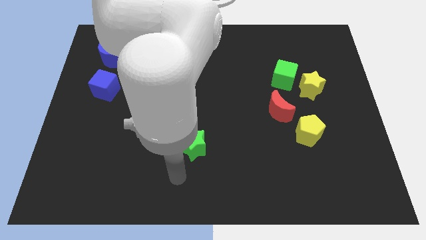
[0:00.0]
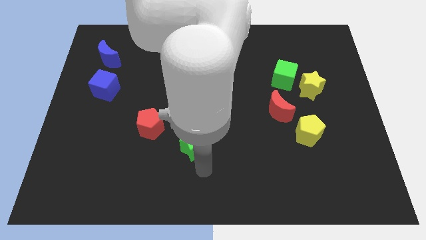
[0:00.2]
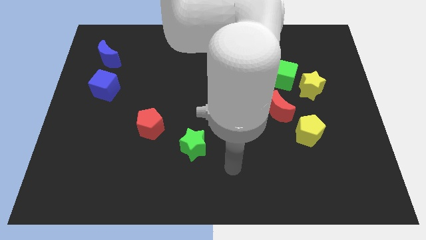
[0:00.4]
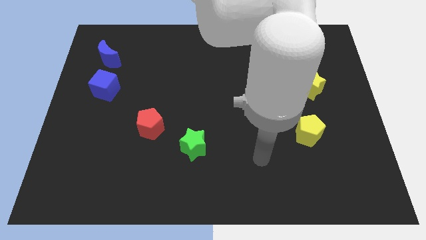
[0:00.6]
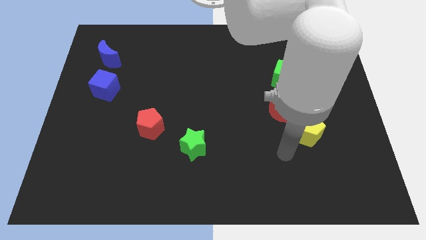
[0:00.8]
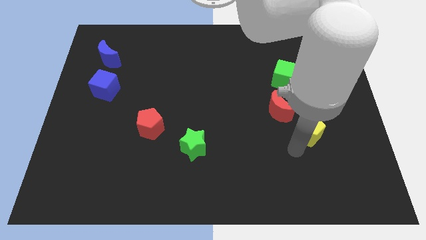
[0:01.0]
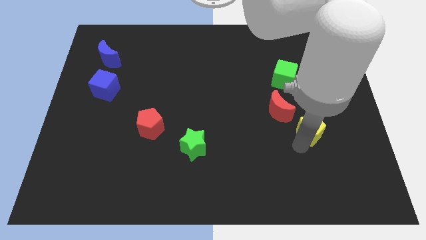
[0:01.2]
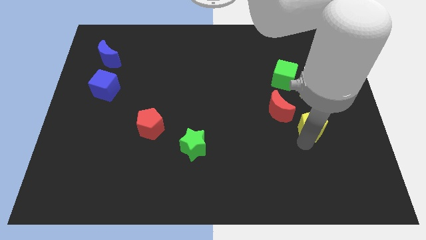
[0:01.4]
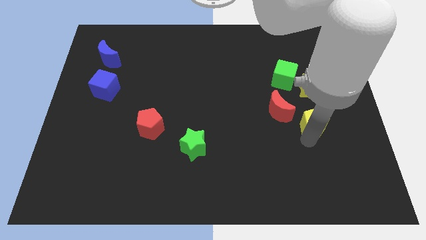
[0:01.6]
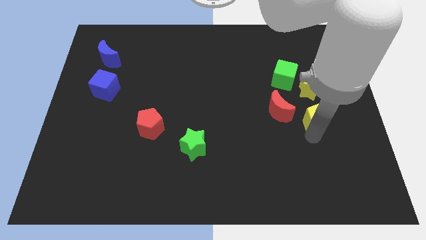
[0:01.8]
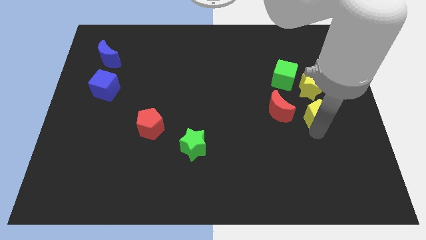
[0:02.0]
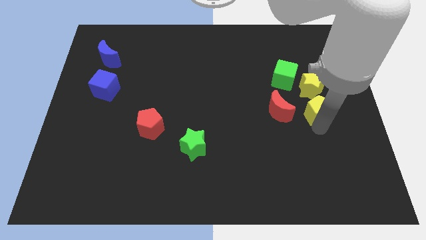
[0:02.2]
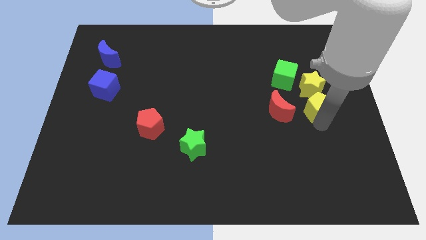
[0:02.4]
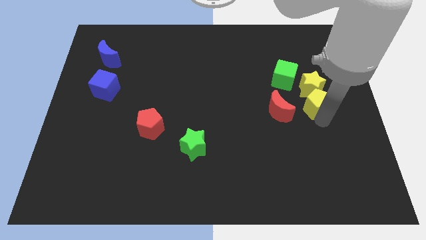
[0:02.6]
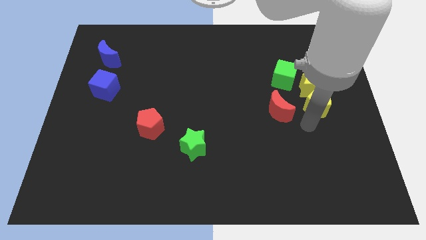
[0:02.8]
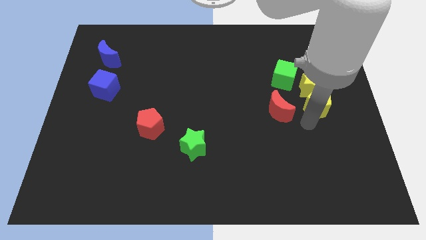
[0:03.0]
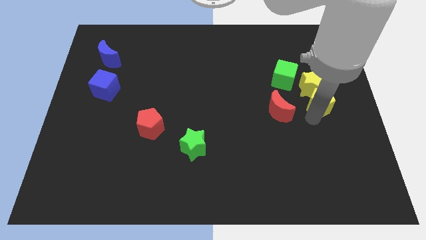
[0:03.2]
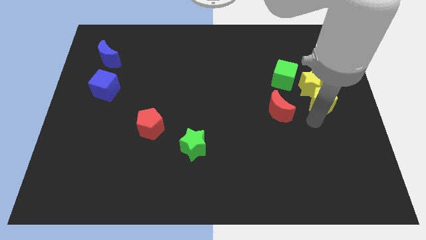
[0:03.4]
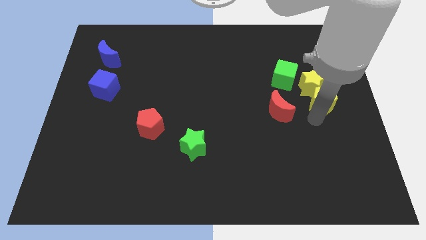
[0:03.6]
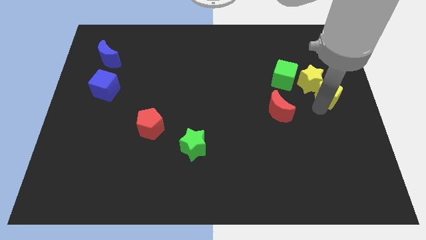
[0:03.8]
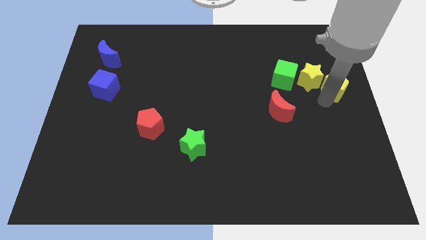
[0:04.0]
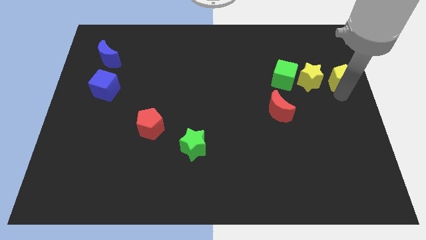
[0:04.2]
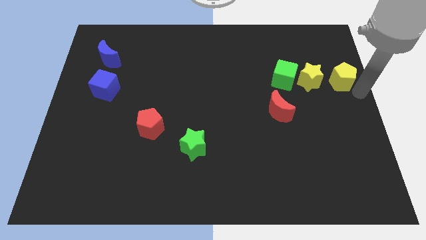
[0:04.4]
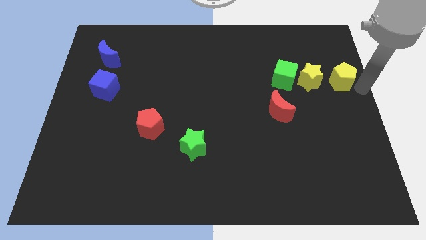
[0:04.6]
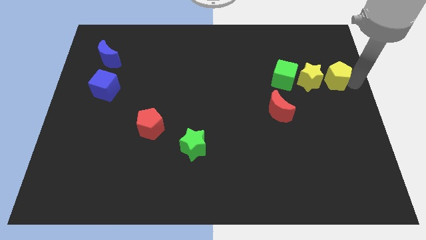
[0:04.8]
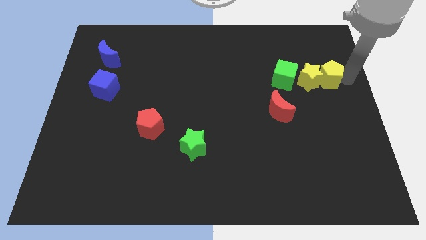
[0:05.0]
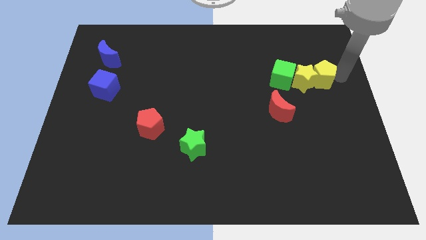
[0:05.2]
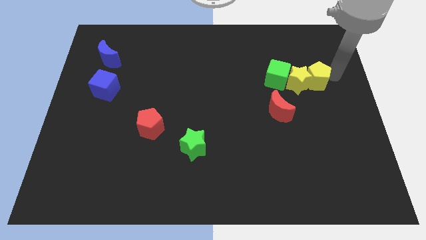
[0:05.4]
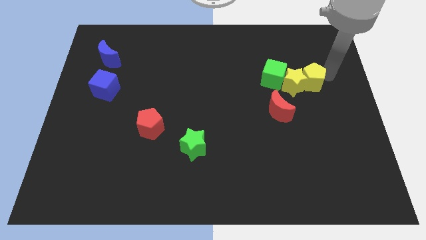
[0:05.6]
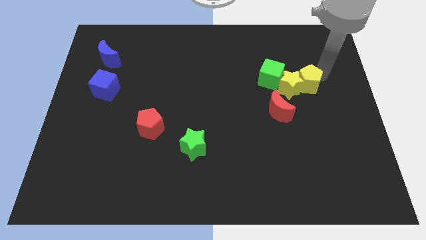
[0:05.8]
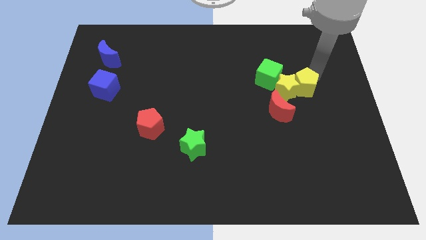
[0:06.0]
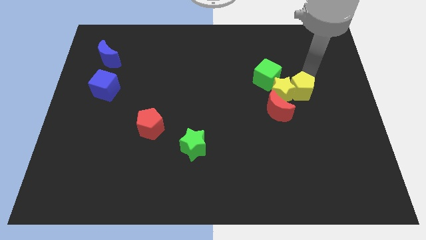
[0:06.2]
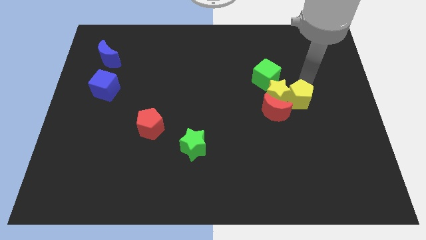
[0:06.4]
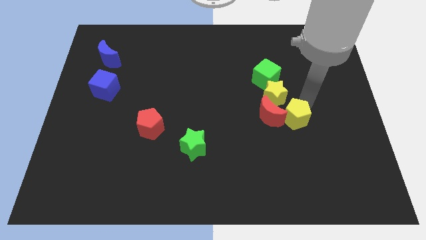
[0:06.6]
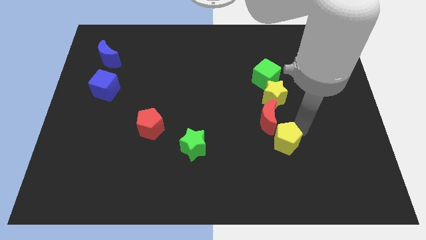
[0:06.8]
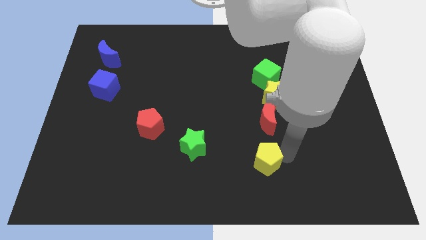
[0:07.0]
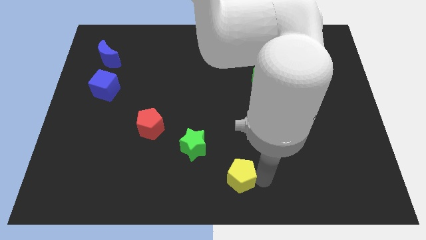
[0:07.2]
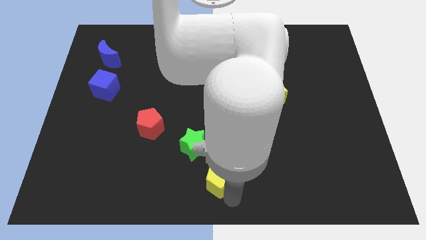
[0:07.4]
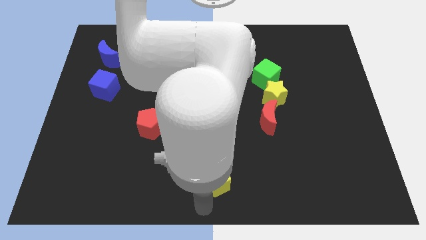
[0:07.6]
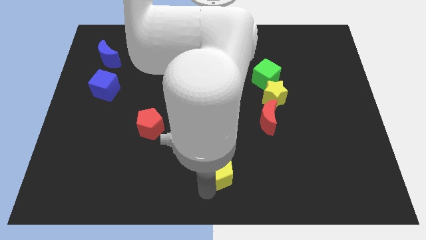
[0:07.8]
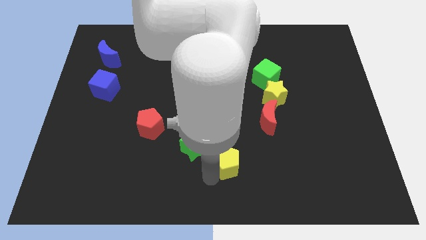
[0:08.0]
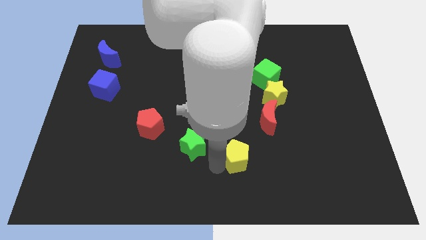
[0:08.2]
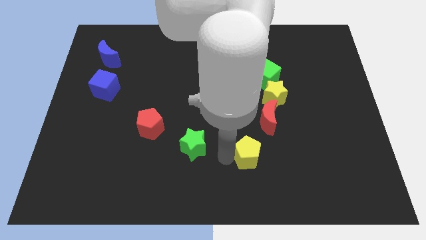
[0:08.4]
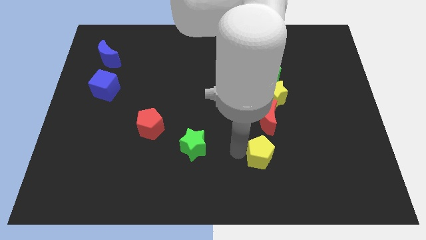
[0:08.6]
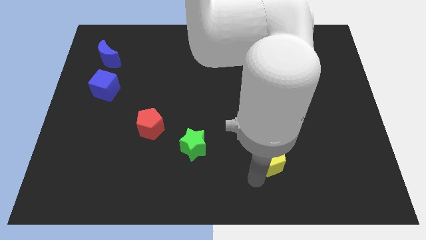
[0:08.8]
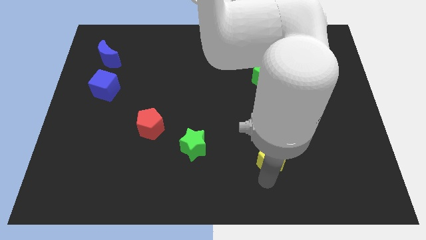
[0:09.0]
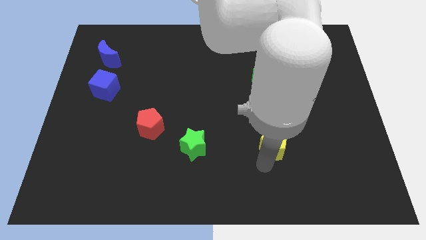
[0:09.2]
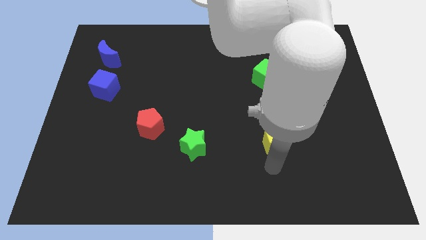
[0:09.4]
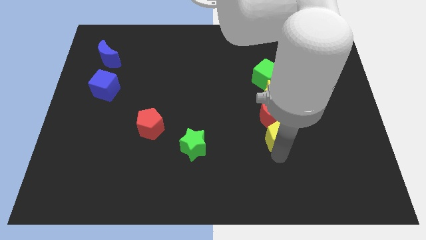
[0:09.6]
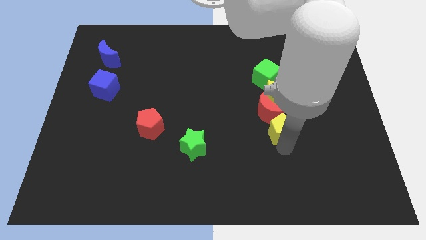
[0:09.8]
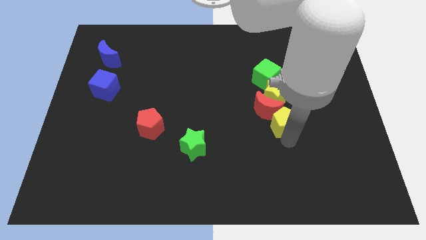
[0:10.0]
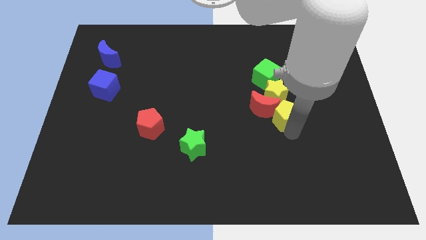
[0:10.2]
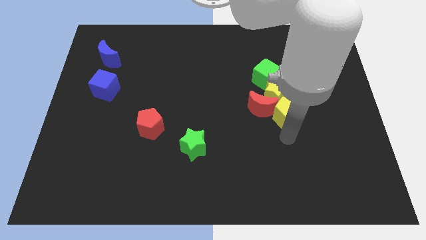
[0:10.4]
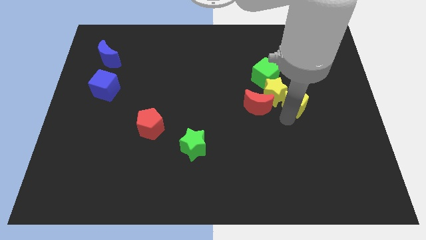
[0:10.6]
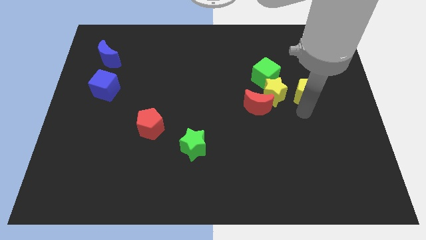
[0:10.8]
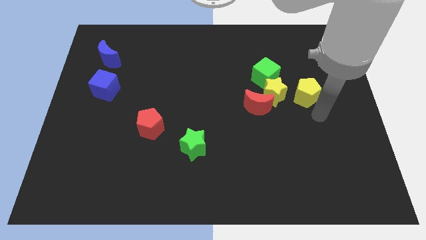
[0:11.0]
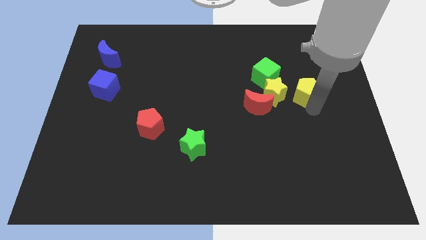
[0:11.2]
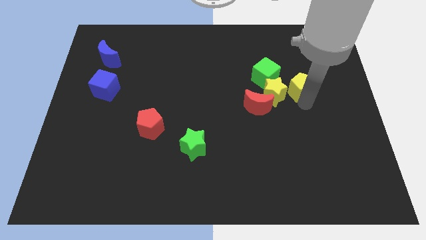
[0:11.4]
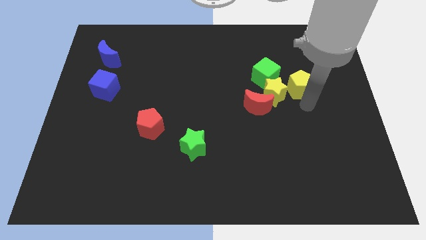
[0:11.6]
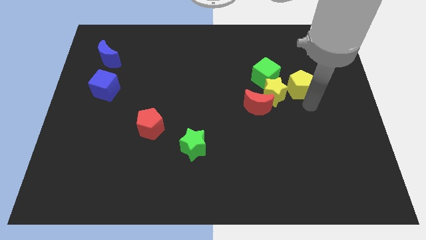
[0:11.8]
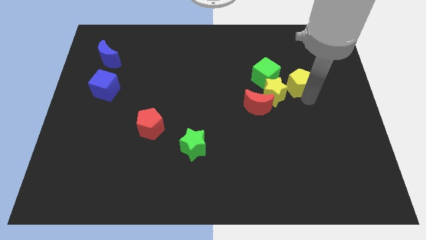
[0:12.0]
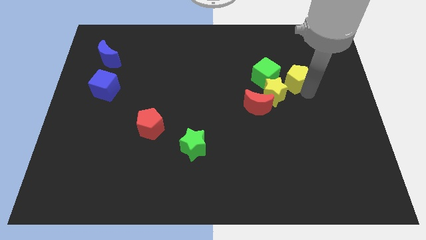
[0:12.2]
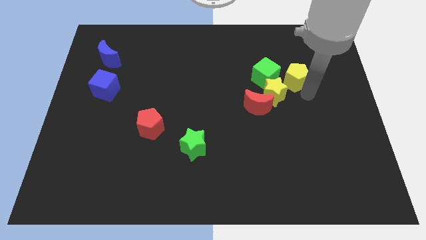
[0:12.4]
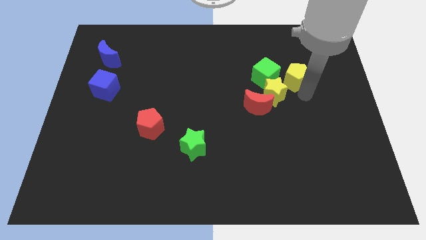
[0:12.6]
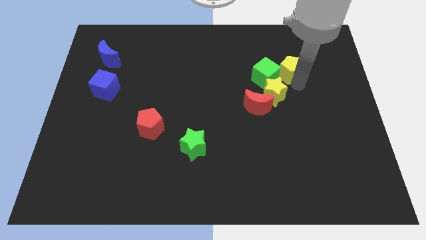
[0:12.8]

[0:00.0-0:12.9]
move the yellow pentagon to the top right side of the green cube

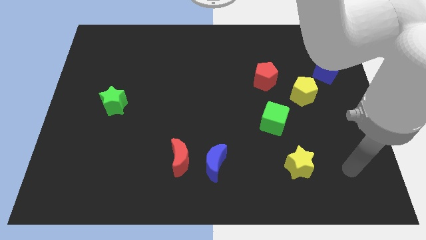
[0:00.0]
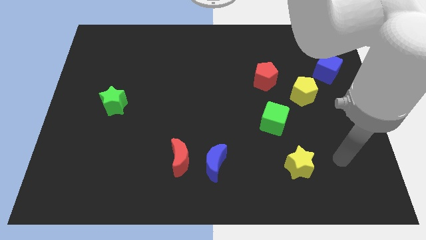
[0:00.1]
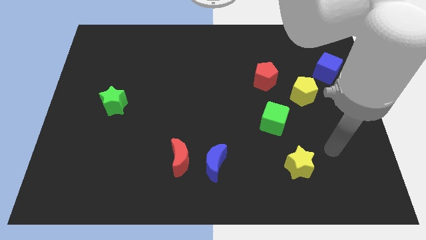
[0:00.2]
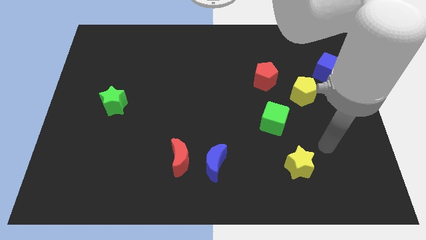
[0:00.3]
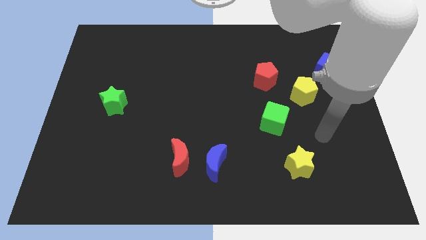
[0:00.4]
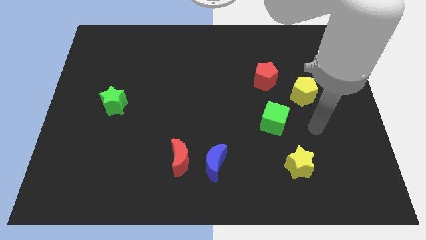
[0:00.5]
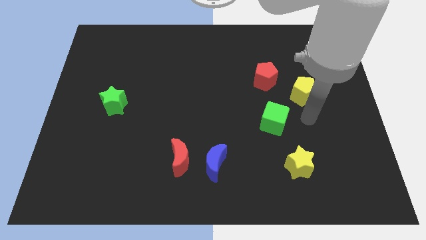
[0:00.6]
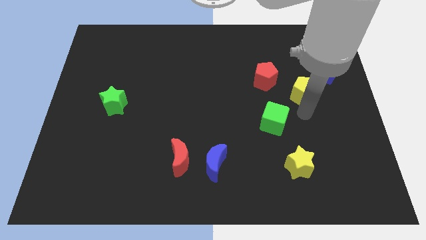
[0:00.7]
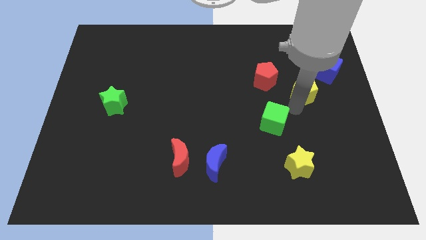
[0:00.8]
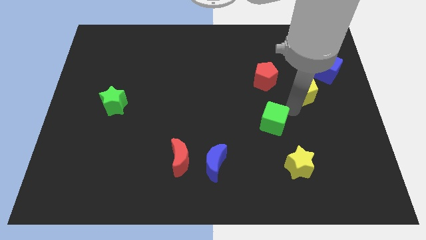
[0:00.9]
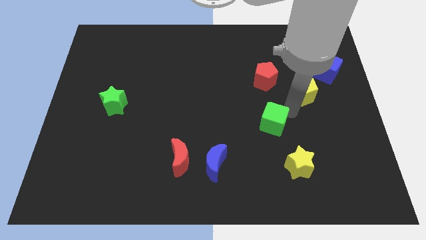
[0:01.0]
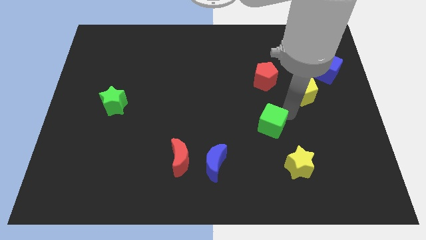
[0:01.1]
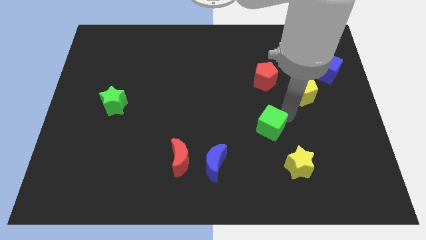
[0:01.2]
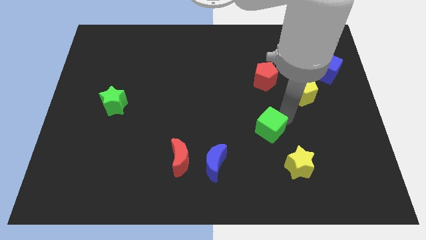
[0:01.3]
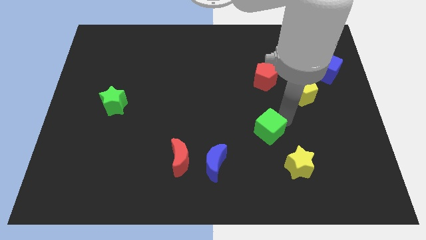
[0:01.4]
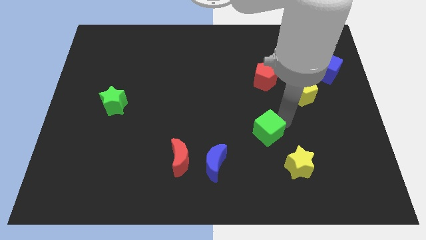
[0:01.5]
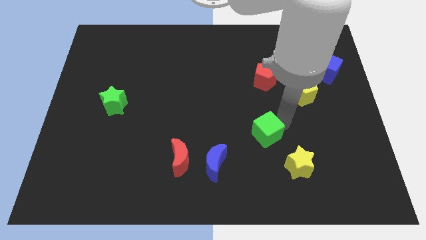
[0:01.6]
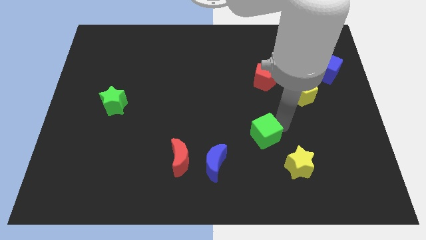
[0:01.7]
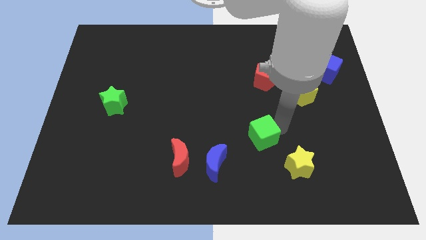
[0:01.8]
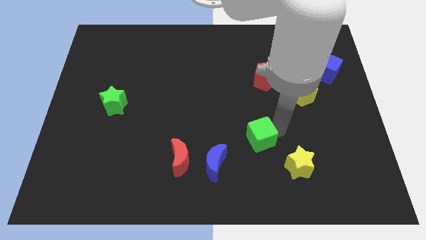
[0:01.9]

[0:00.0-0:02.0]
move the green cube to the top right of the blue moon
